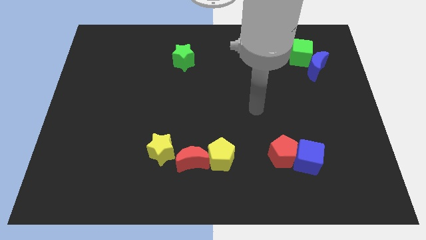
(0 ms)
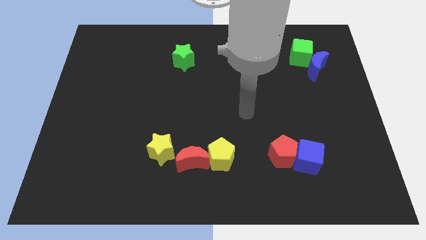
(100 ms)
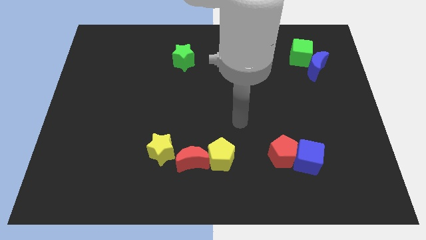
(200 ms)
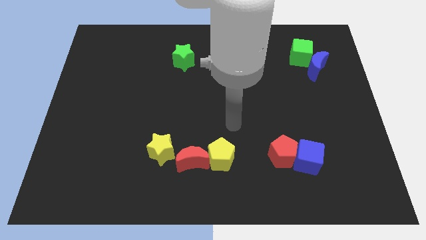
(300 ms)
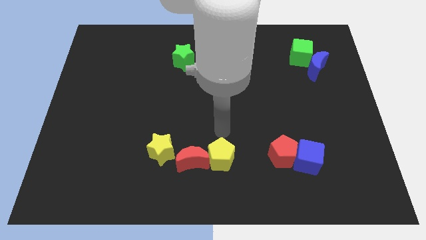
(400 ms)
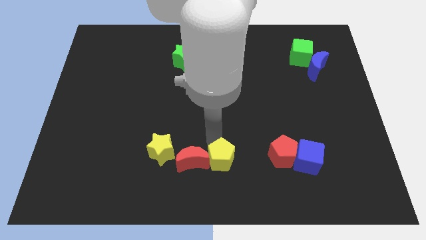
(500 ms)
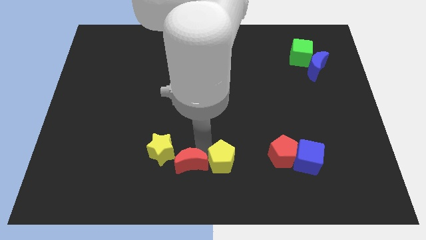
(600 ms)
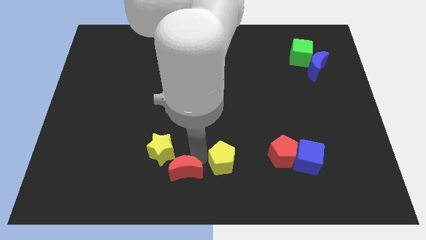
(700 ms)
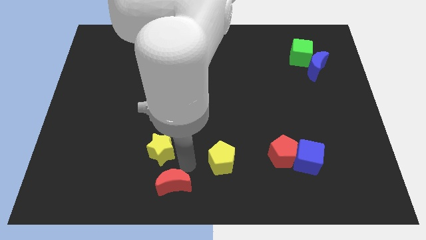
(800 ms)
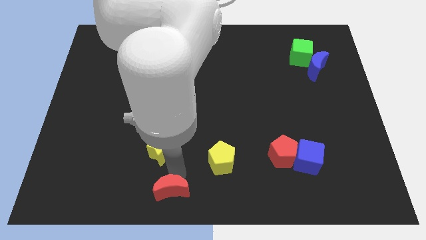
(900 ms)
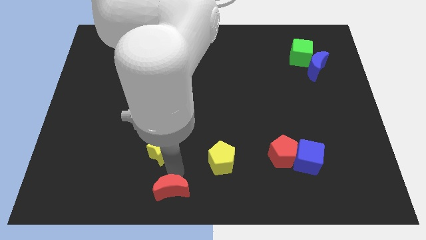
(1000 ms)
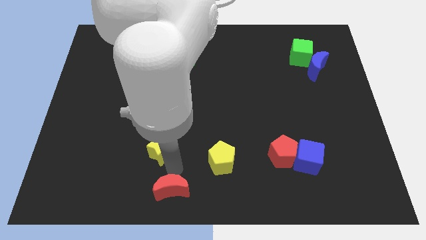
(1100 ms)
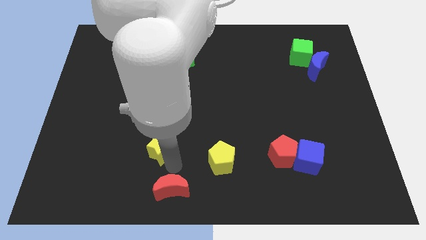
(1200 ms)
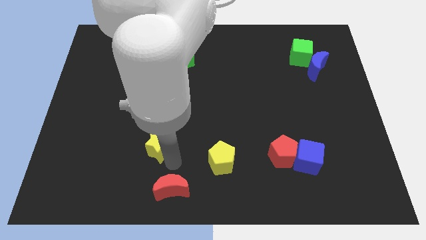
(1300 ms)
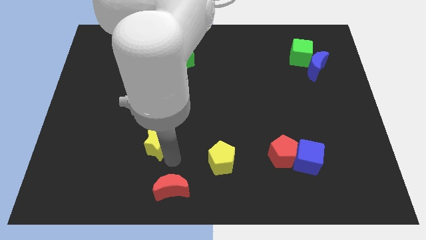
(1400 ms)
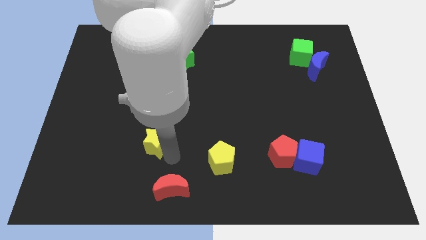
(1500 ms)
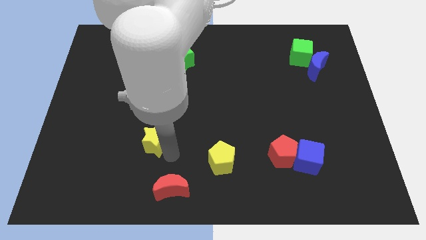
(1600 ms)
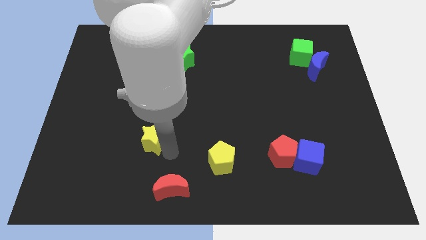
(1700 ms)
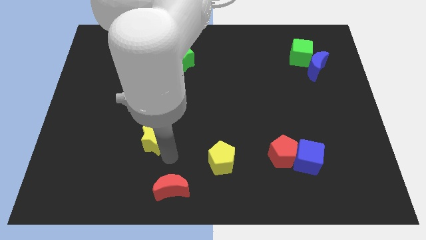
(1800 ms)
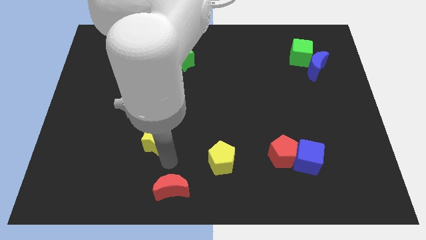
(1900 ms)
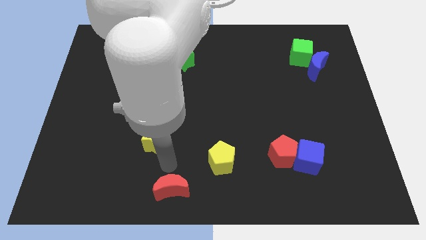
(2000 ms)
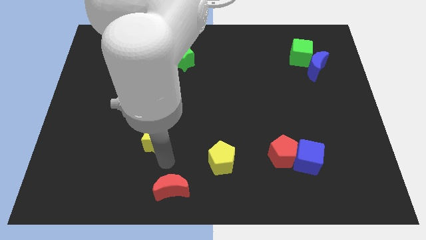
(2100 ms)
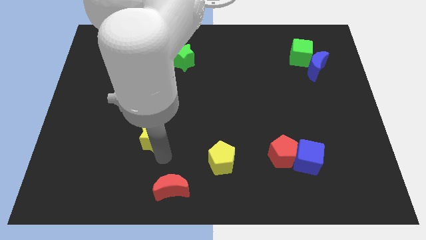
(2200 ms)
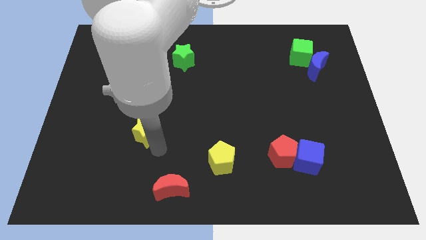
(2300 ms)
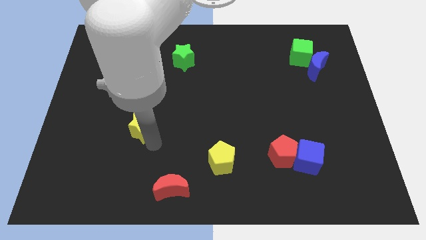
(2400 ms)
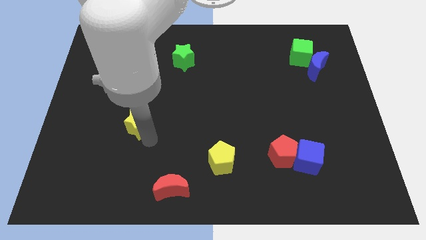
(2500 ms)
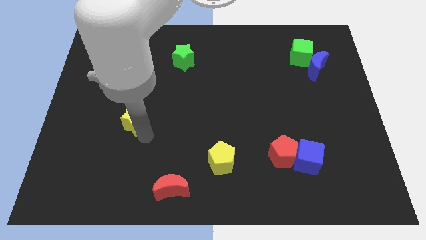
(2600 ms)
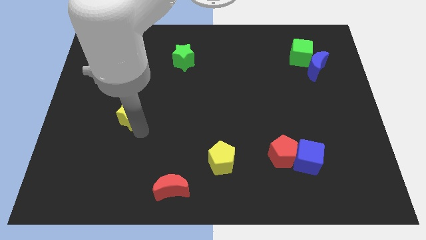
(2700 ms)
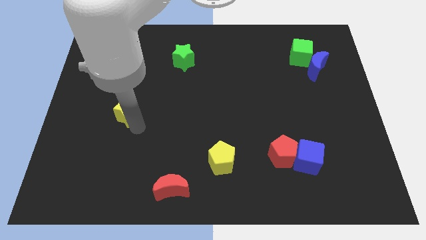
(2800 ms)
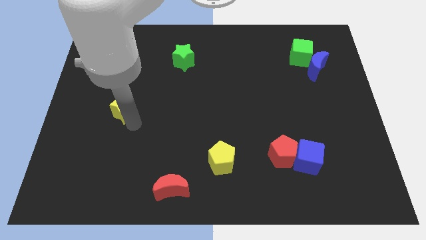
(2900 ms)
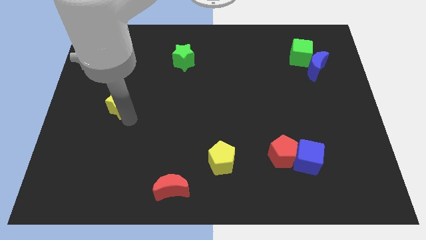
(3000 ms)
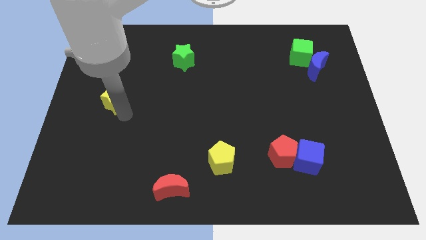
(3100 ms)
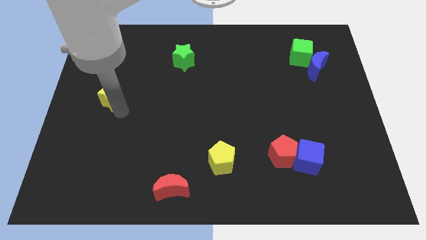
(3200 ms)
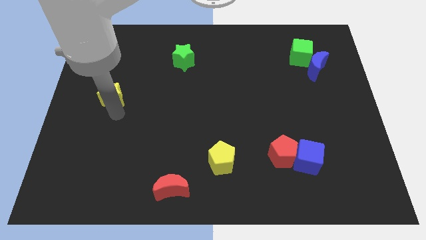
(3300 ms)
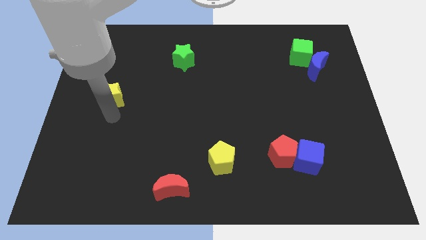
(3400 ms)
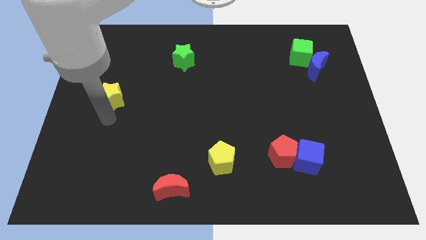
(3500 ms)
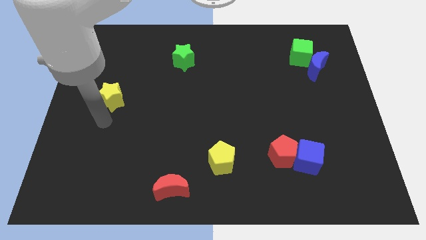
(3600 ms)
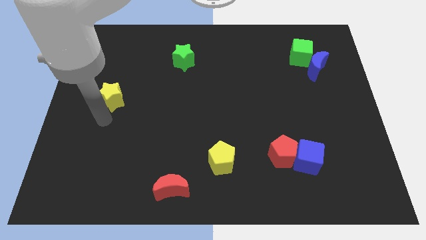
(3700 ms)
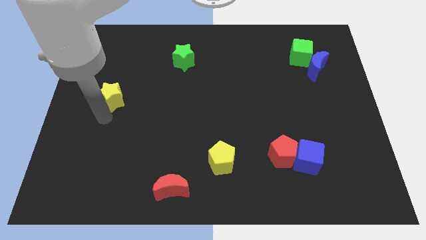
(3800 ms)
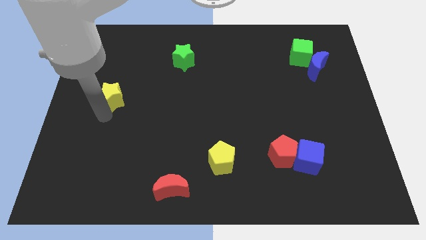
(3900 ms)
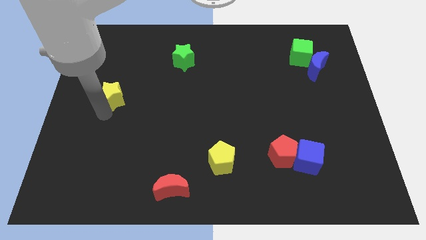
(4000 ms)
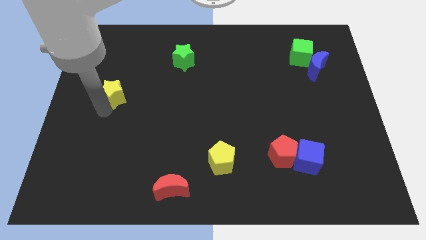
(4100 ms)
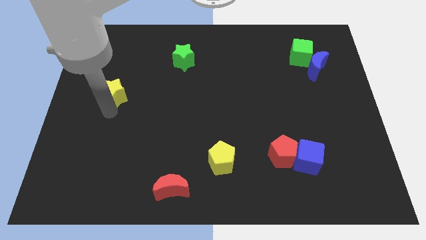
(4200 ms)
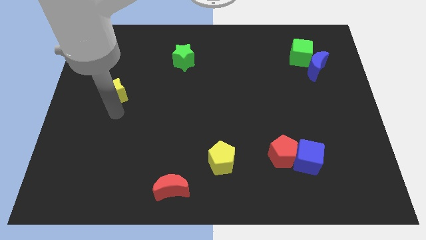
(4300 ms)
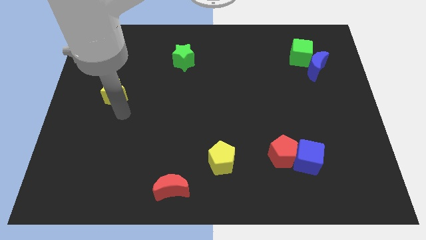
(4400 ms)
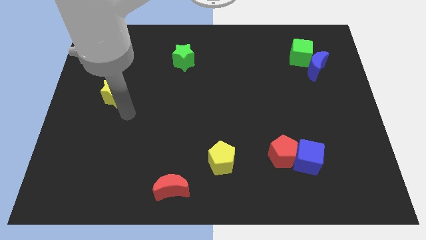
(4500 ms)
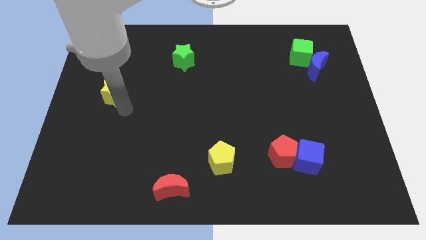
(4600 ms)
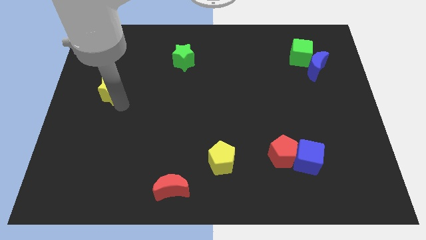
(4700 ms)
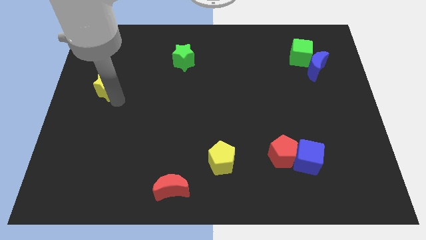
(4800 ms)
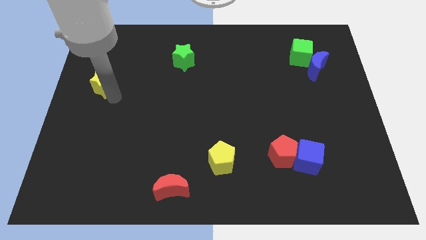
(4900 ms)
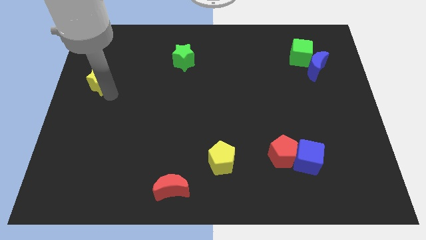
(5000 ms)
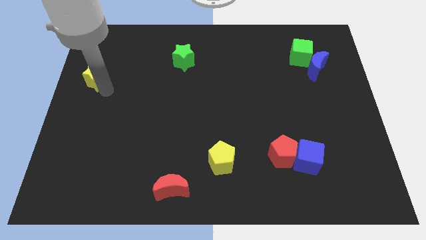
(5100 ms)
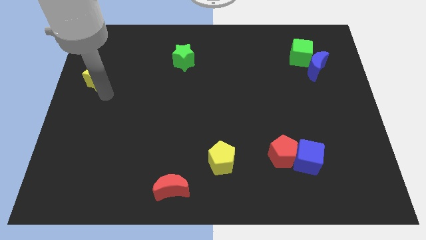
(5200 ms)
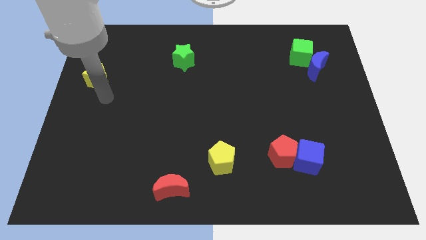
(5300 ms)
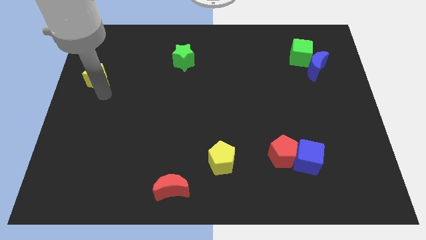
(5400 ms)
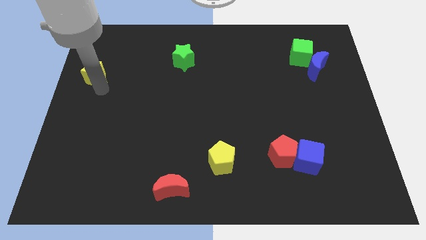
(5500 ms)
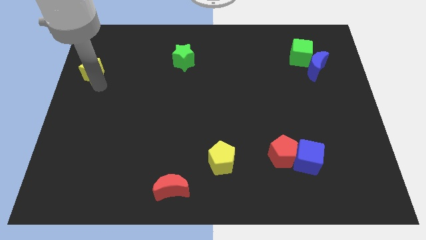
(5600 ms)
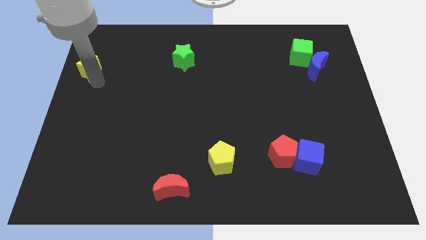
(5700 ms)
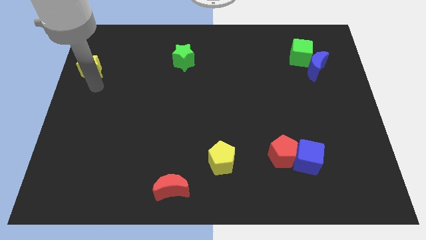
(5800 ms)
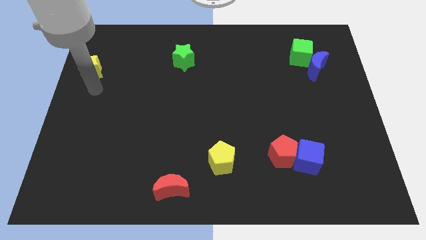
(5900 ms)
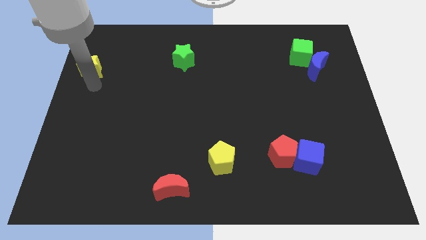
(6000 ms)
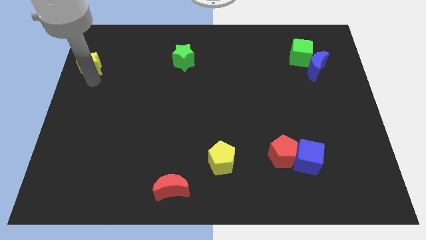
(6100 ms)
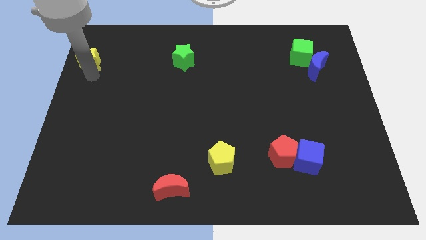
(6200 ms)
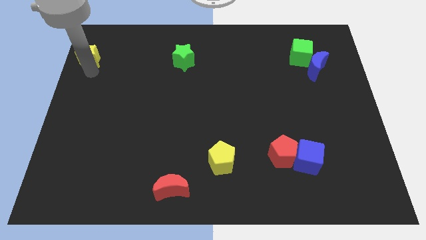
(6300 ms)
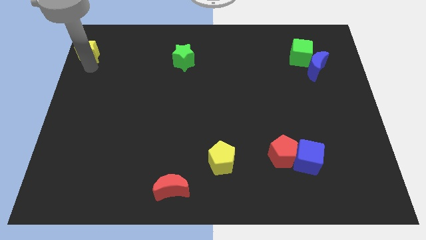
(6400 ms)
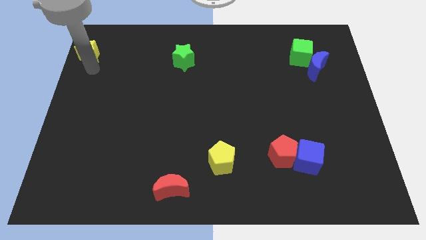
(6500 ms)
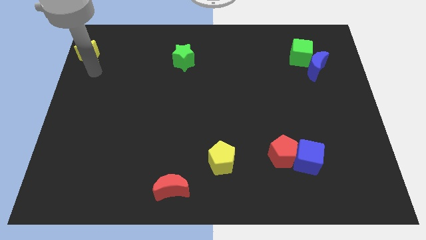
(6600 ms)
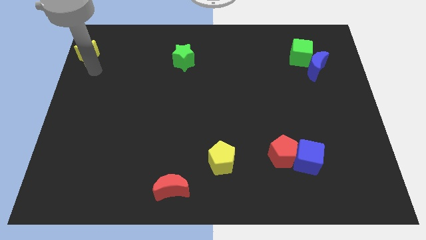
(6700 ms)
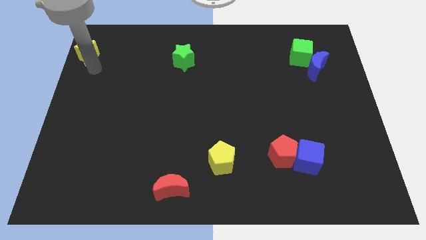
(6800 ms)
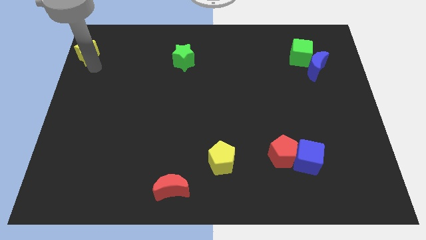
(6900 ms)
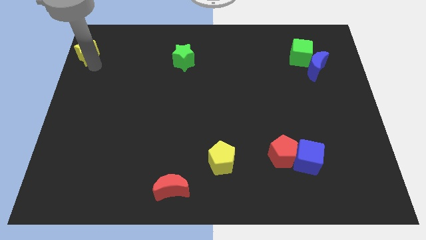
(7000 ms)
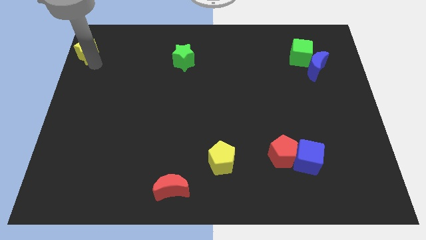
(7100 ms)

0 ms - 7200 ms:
put the yellow star to the upper left corner
